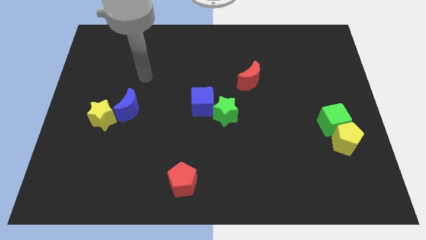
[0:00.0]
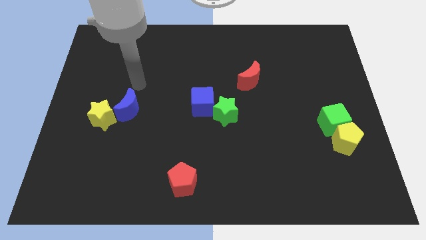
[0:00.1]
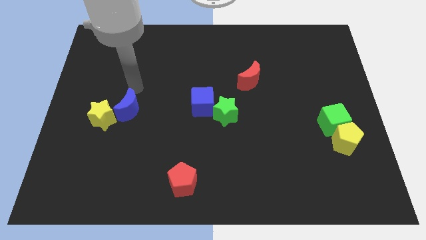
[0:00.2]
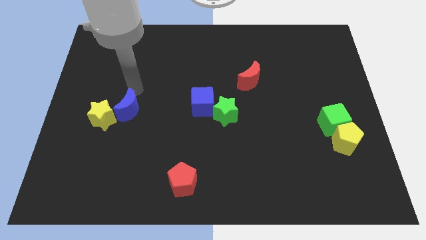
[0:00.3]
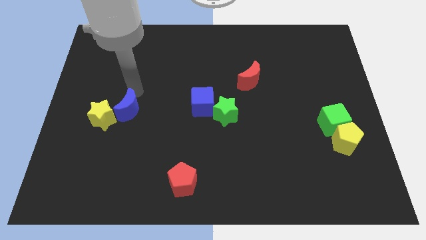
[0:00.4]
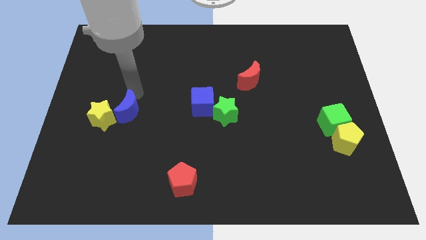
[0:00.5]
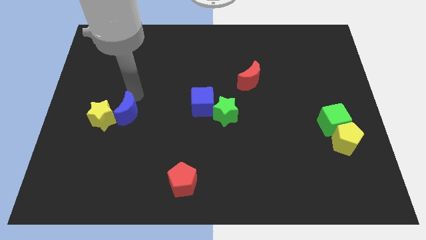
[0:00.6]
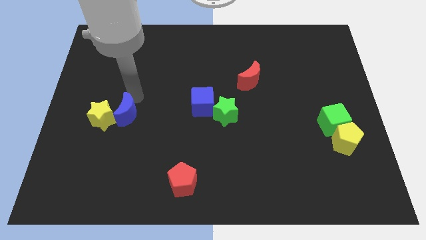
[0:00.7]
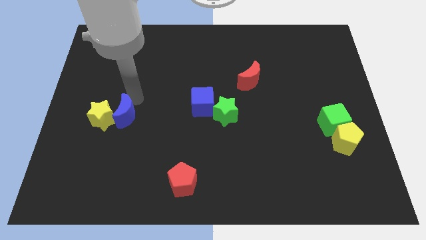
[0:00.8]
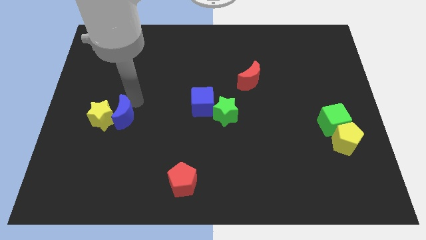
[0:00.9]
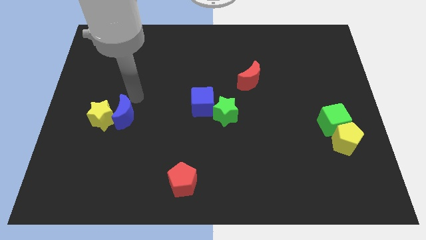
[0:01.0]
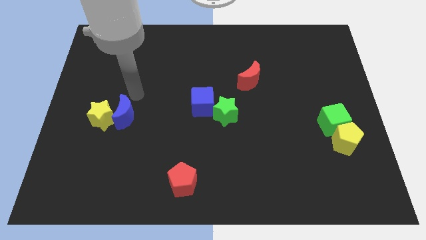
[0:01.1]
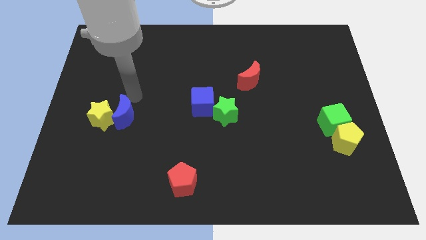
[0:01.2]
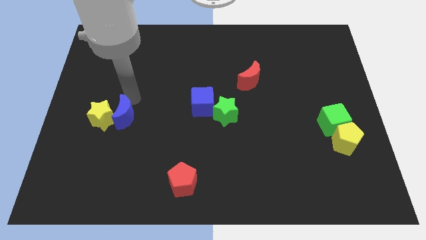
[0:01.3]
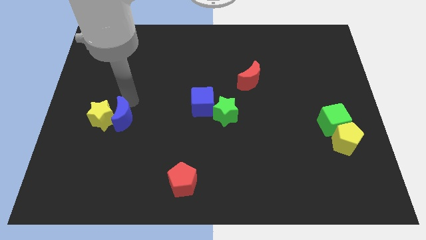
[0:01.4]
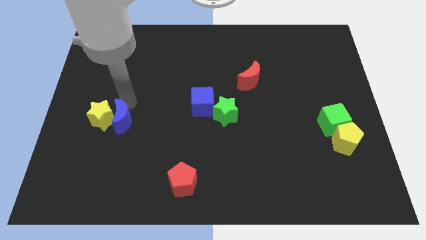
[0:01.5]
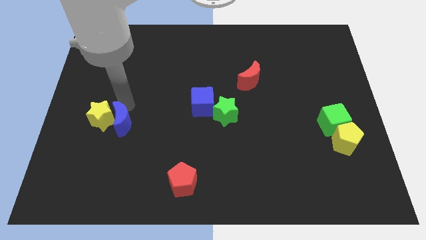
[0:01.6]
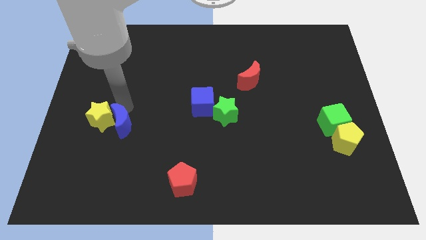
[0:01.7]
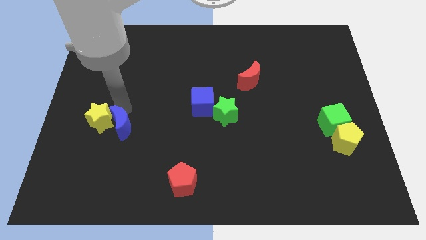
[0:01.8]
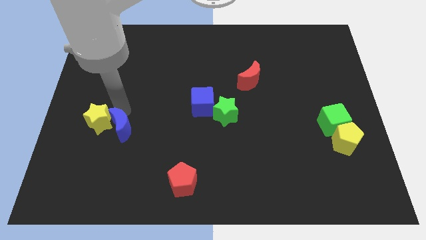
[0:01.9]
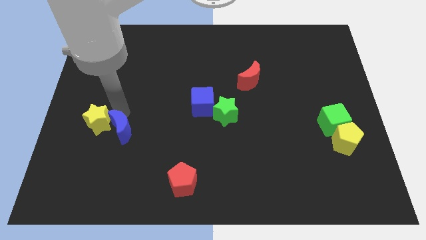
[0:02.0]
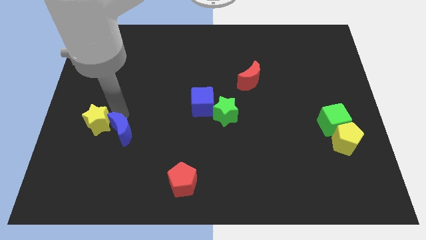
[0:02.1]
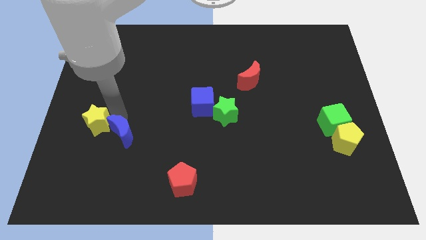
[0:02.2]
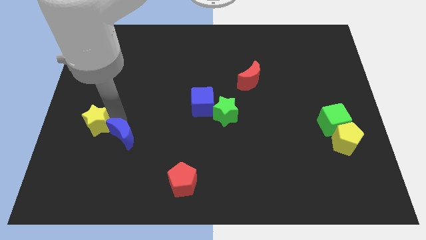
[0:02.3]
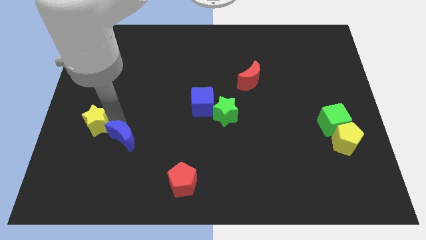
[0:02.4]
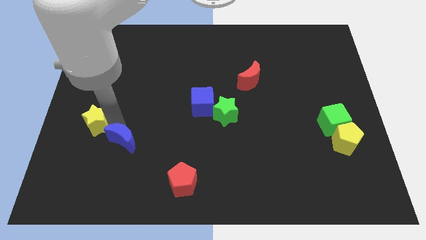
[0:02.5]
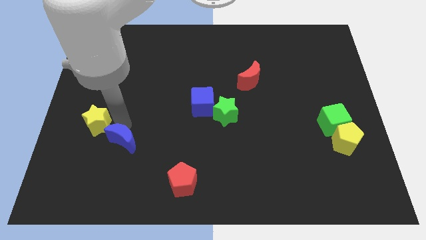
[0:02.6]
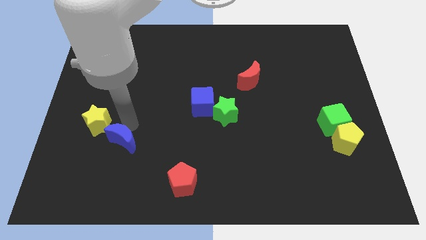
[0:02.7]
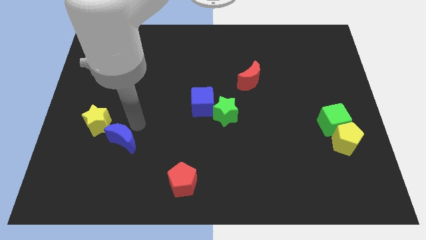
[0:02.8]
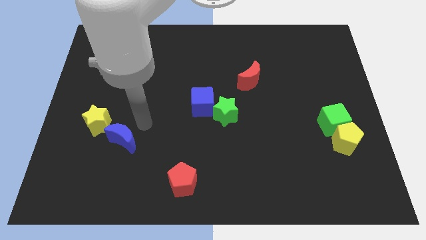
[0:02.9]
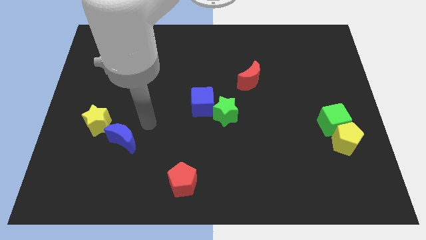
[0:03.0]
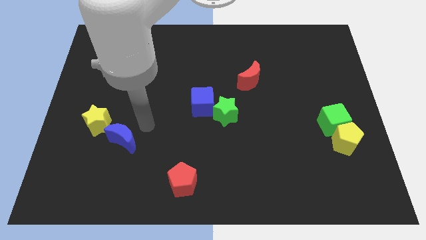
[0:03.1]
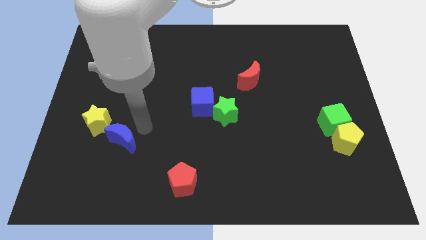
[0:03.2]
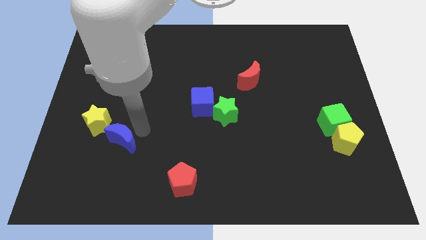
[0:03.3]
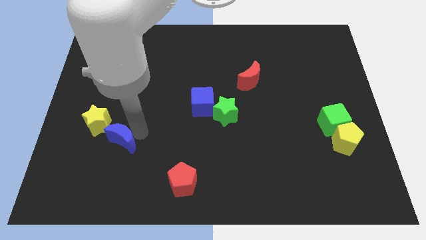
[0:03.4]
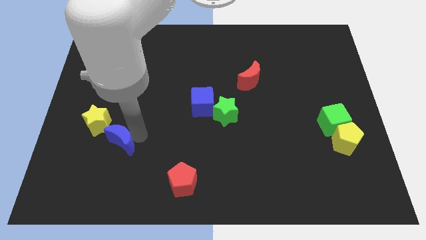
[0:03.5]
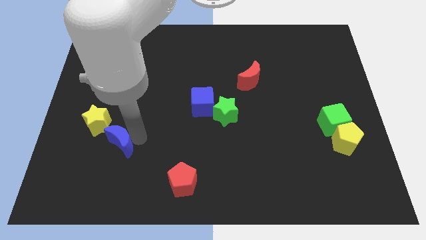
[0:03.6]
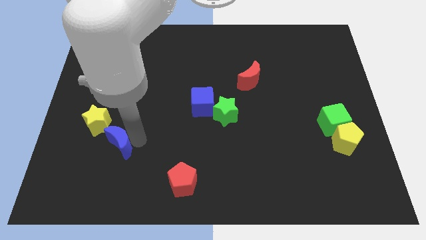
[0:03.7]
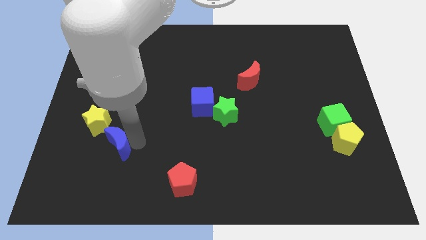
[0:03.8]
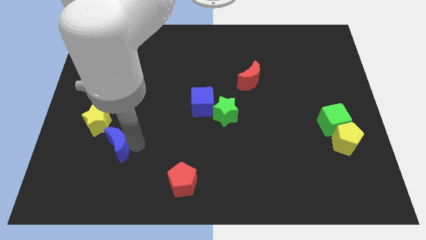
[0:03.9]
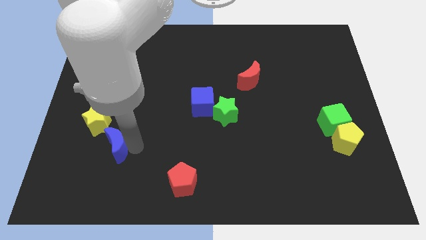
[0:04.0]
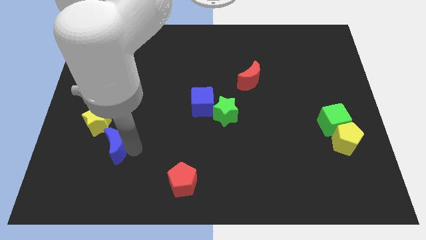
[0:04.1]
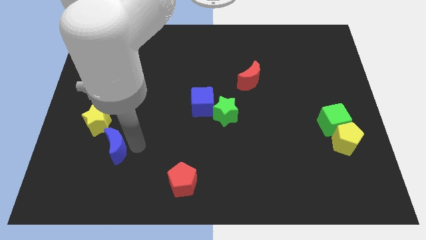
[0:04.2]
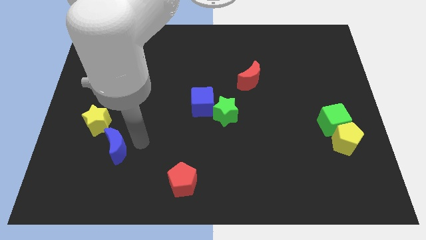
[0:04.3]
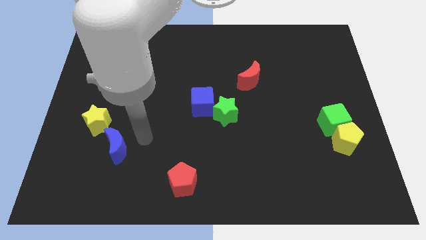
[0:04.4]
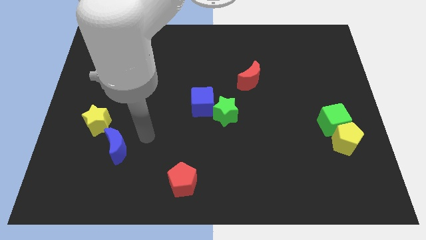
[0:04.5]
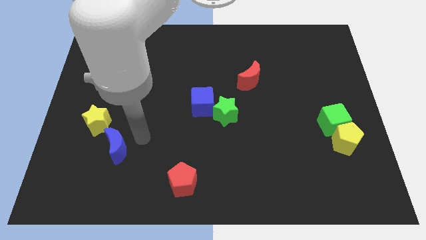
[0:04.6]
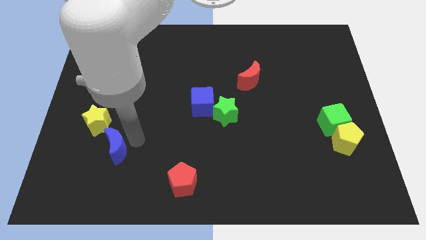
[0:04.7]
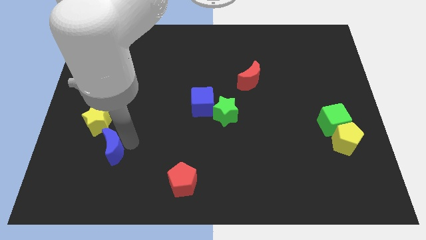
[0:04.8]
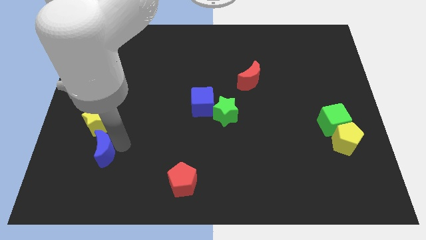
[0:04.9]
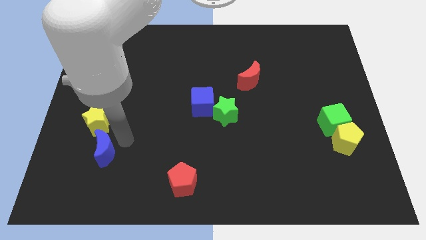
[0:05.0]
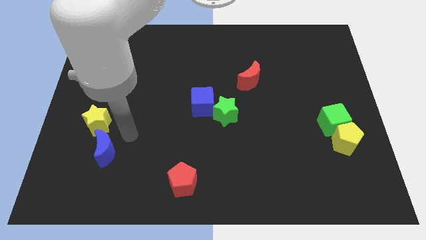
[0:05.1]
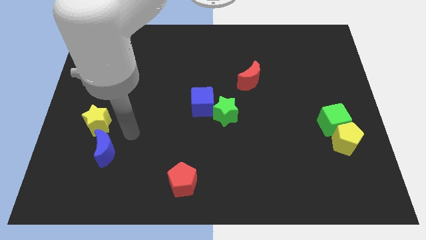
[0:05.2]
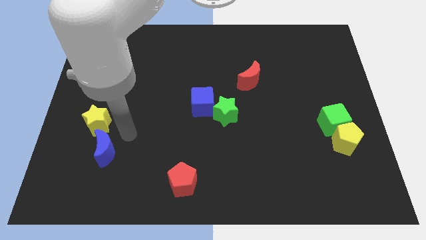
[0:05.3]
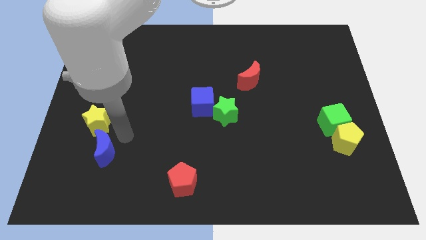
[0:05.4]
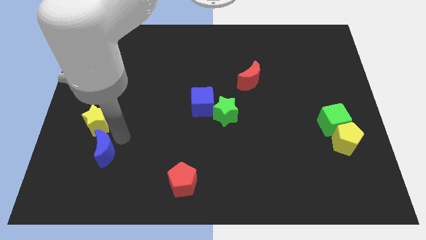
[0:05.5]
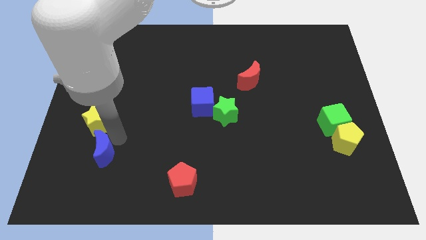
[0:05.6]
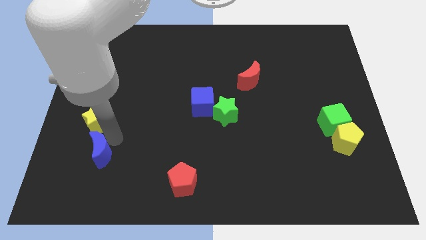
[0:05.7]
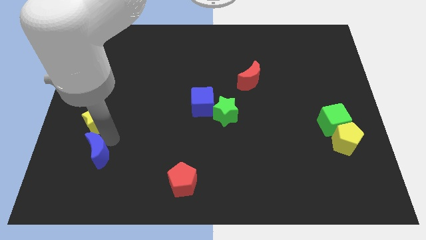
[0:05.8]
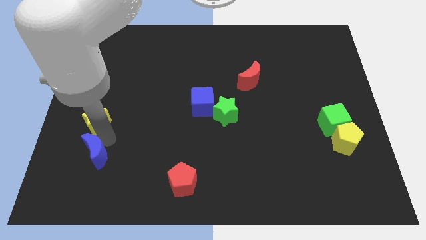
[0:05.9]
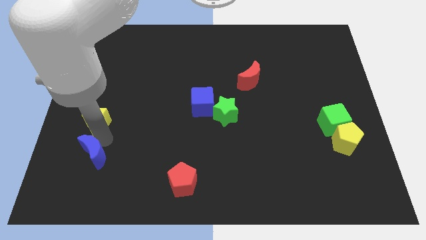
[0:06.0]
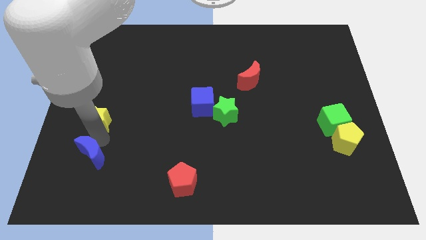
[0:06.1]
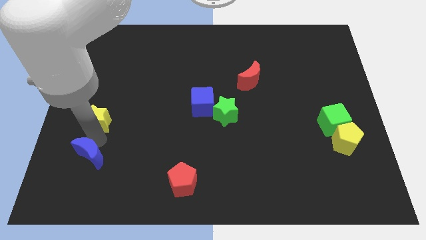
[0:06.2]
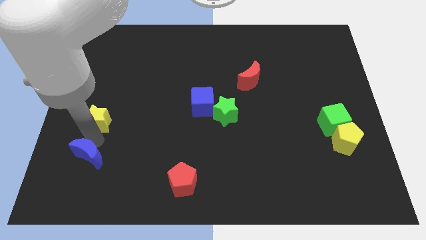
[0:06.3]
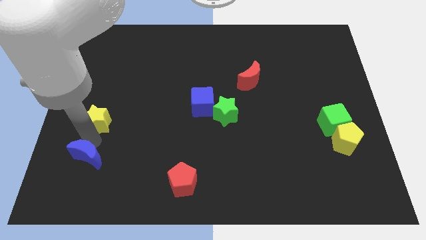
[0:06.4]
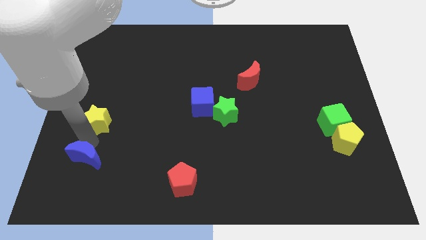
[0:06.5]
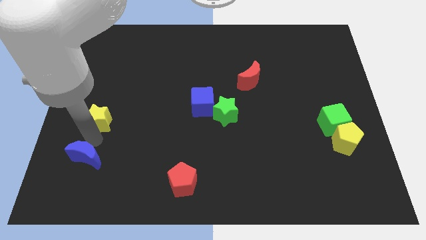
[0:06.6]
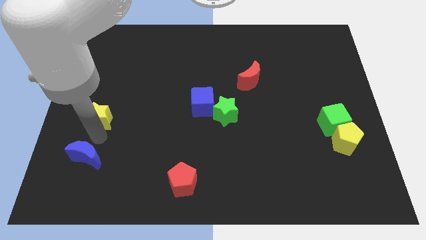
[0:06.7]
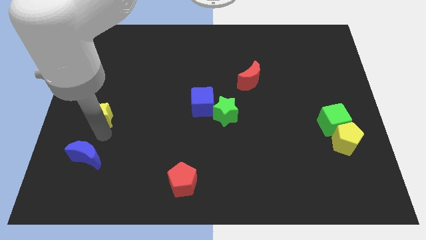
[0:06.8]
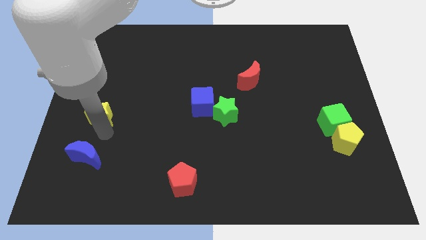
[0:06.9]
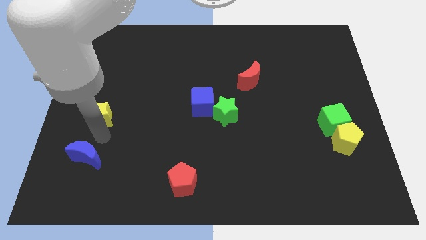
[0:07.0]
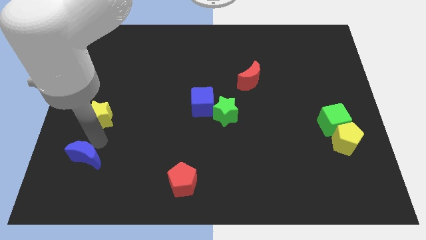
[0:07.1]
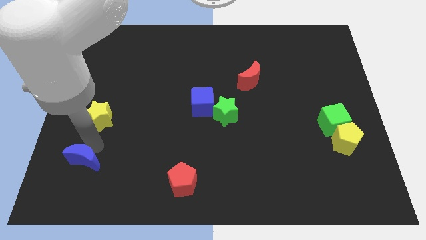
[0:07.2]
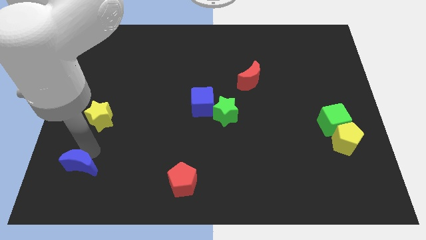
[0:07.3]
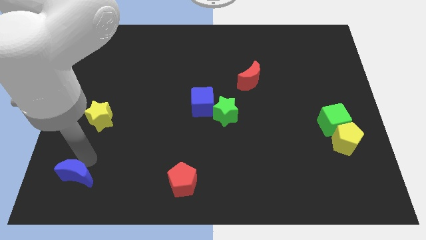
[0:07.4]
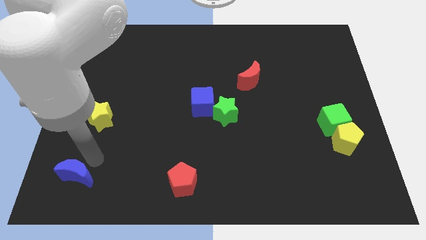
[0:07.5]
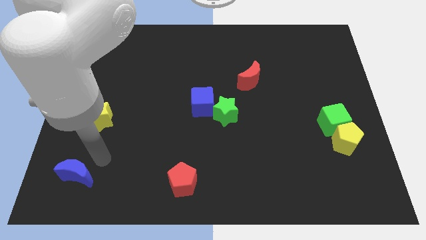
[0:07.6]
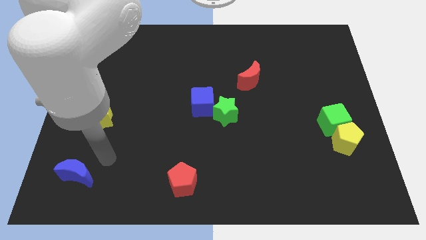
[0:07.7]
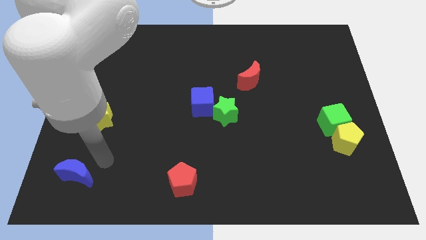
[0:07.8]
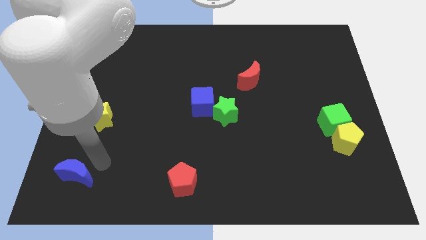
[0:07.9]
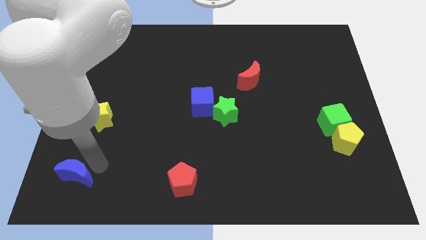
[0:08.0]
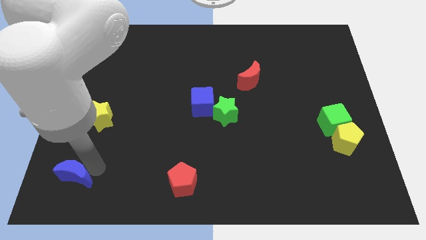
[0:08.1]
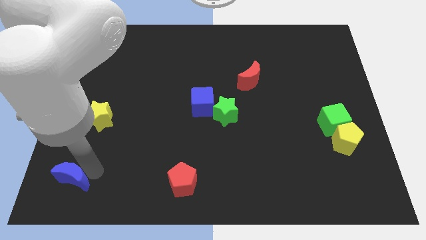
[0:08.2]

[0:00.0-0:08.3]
slide the blue moon to the bottom left
